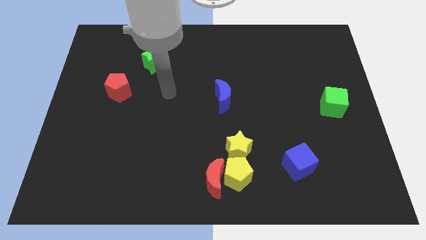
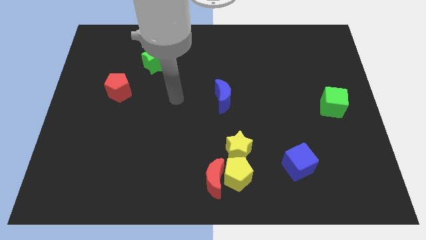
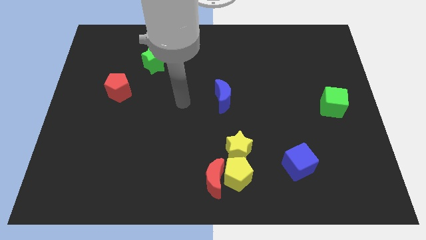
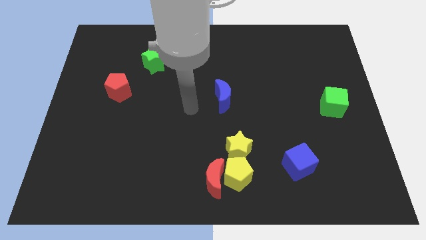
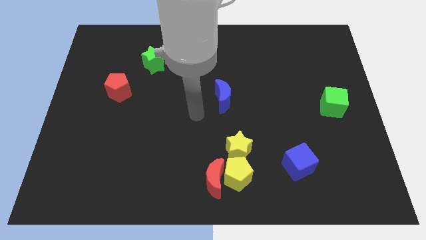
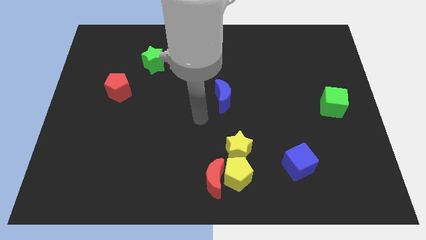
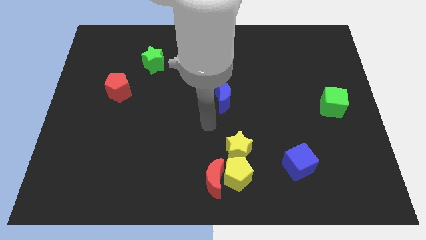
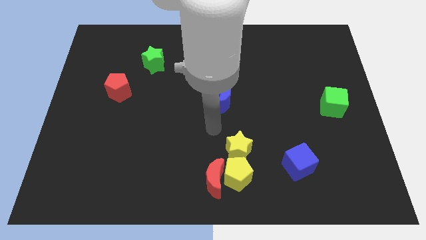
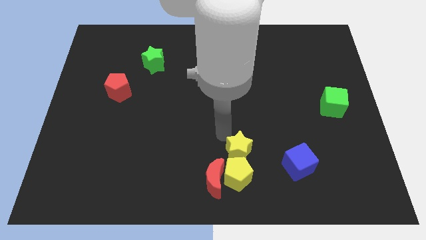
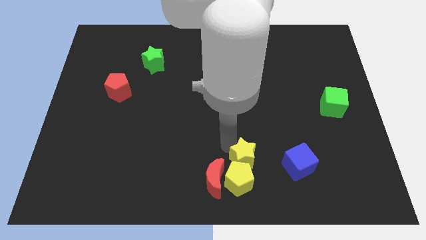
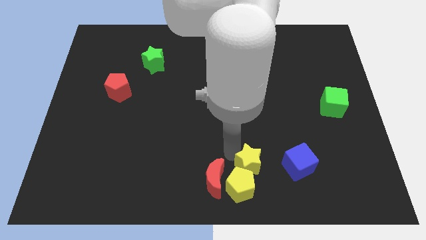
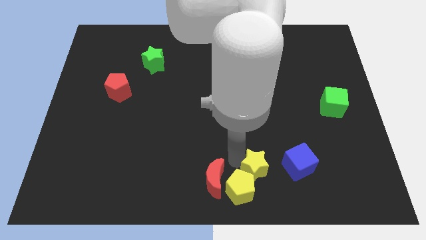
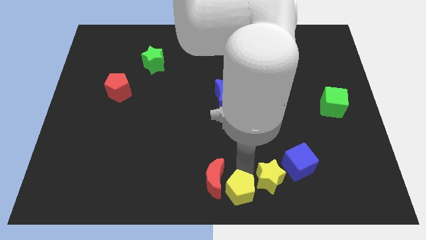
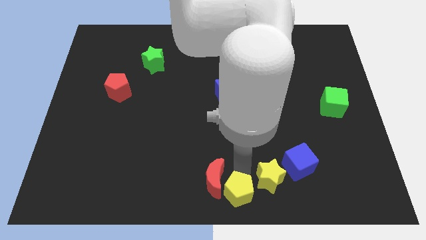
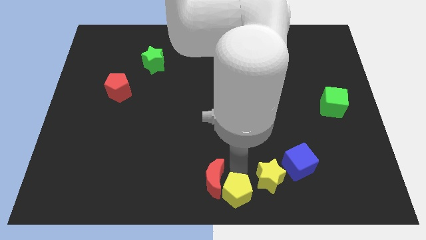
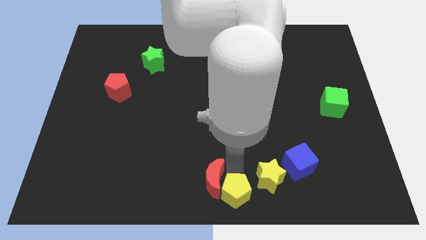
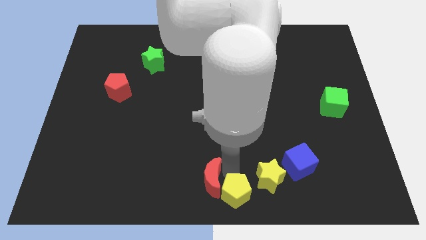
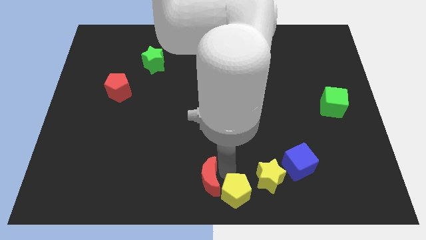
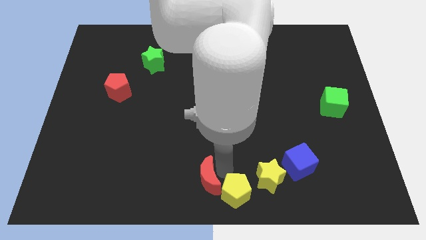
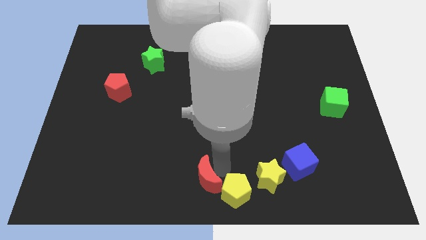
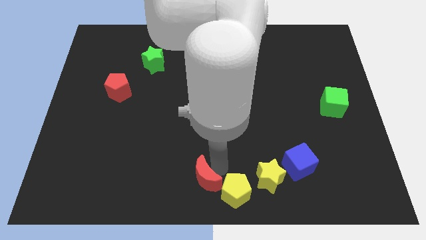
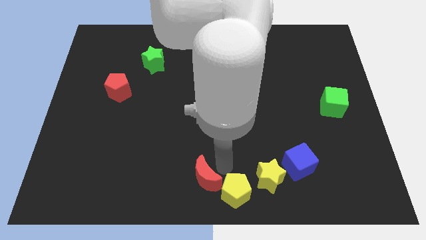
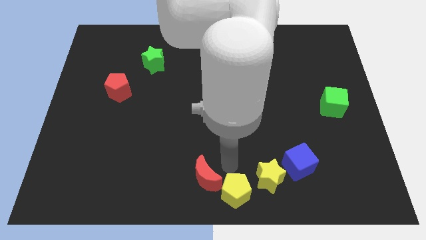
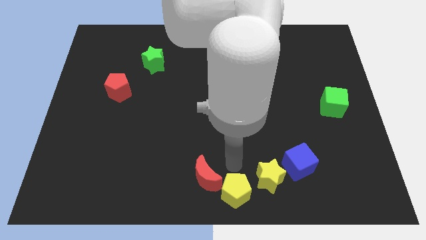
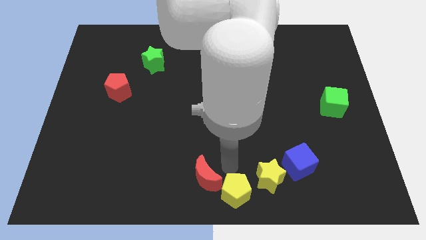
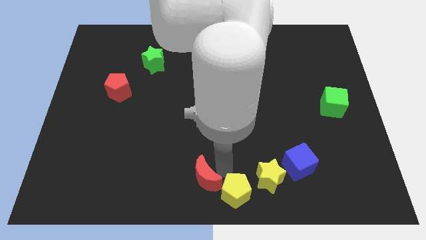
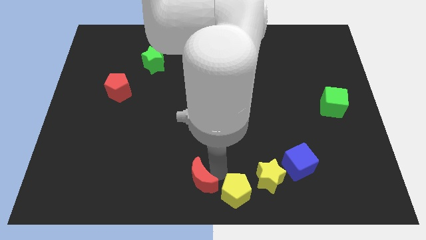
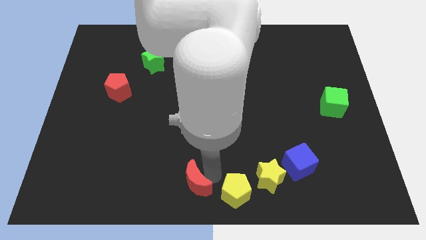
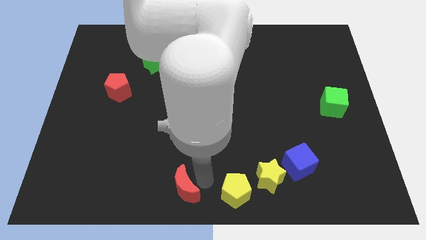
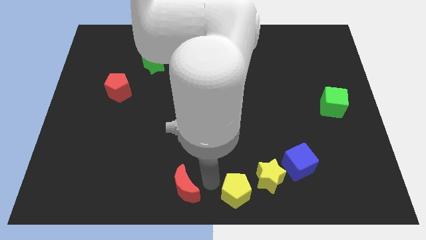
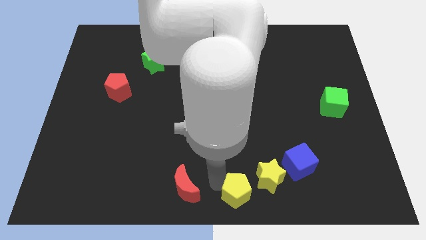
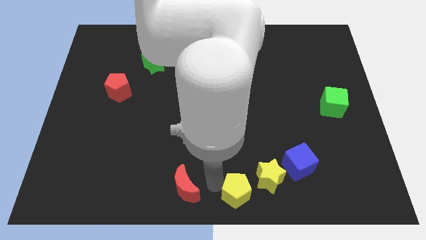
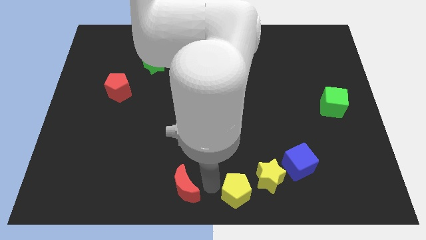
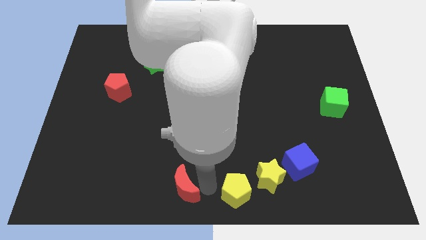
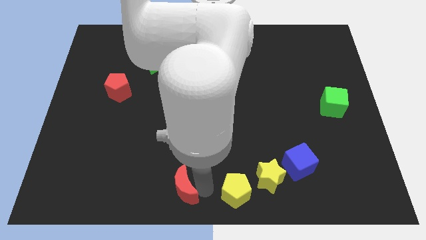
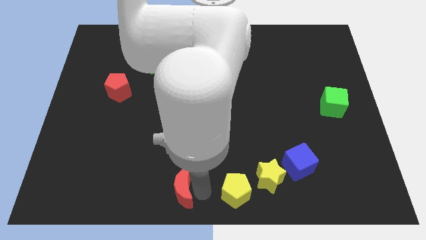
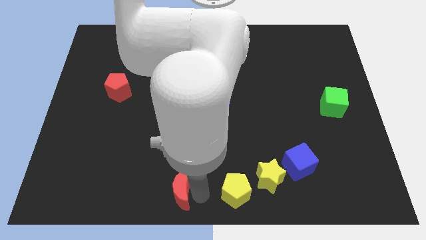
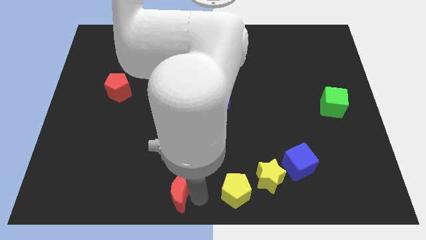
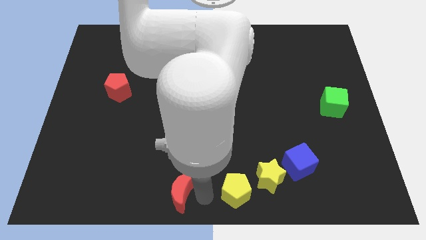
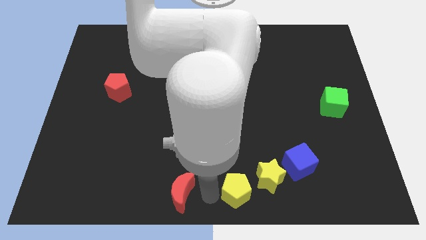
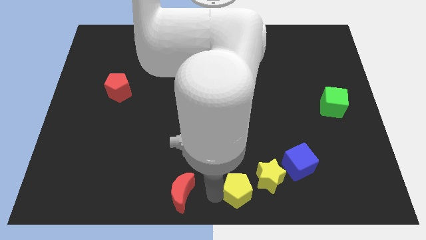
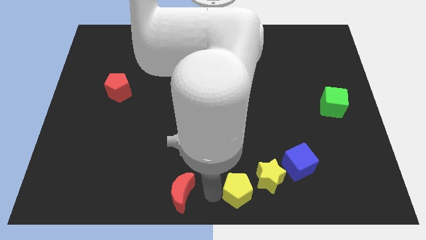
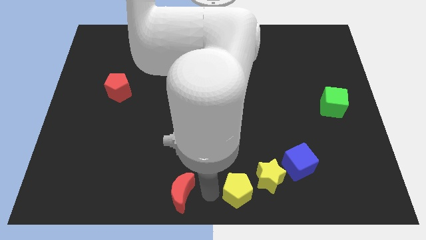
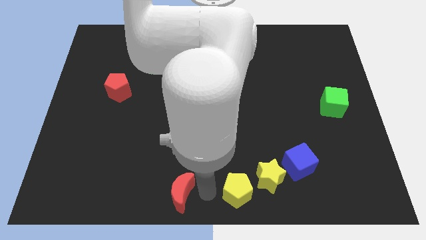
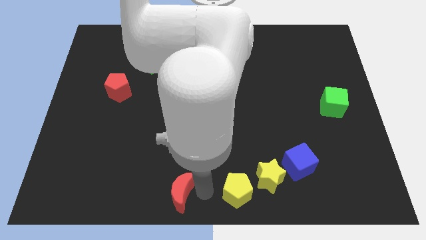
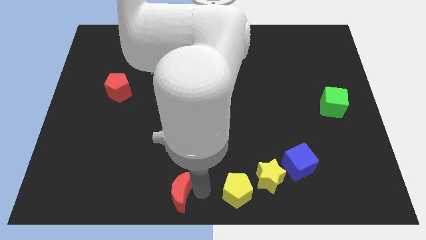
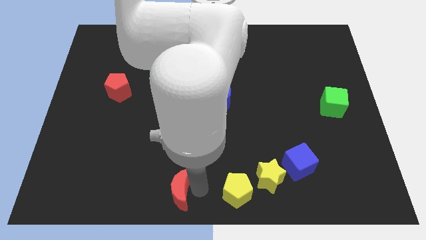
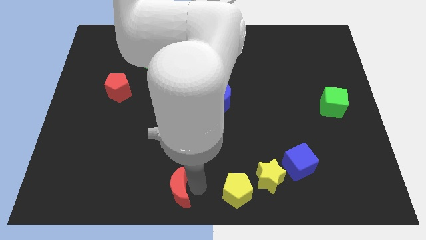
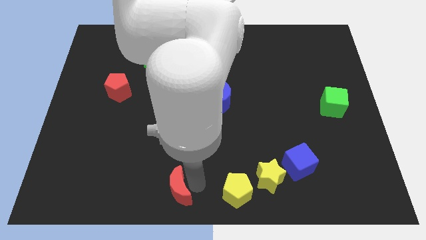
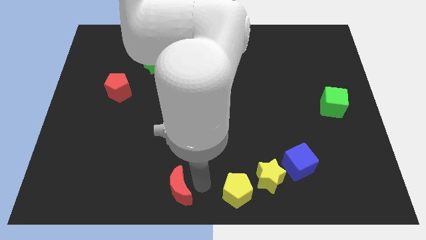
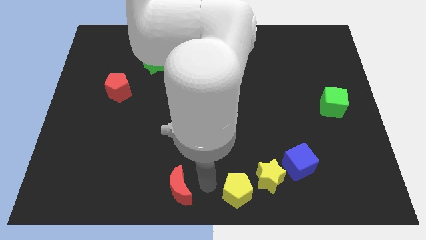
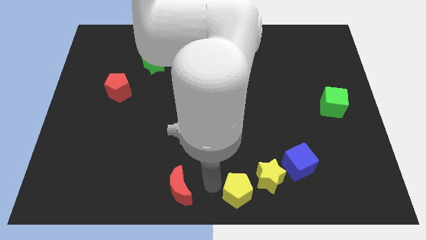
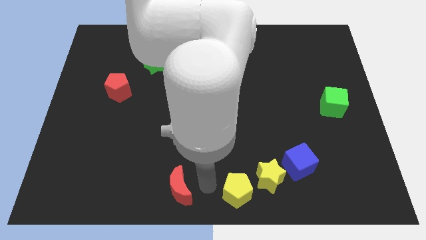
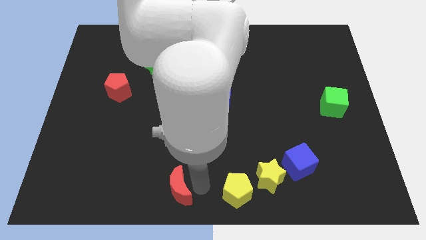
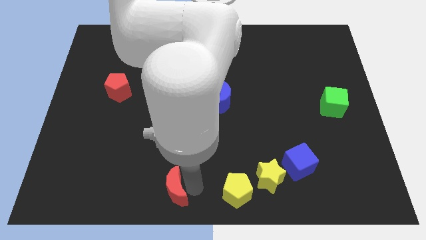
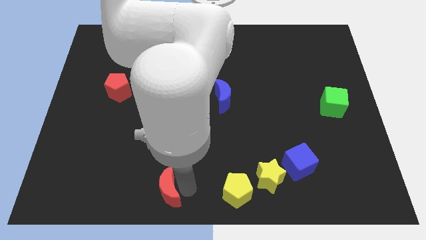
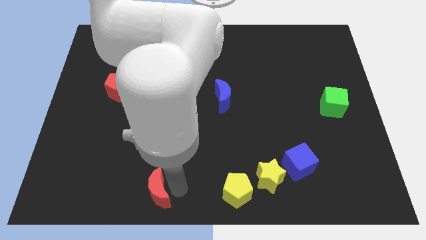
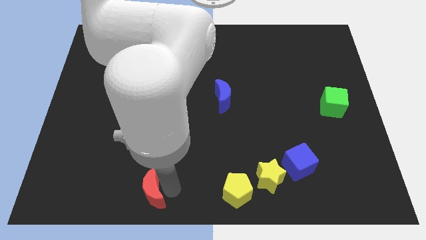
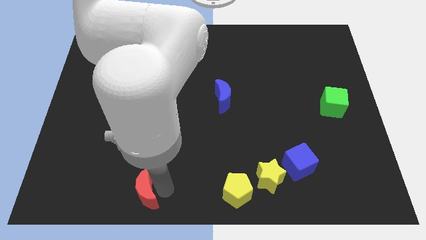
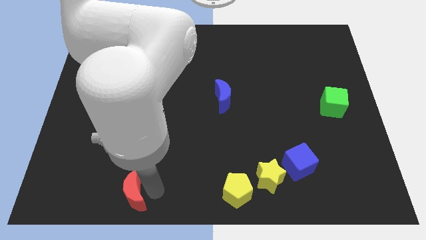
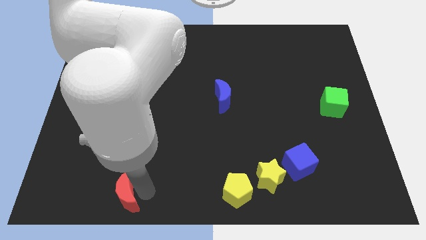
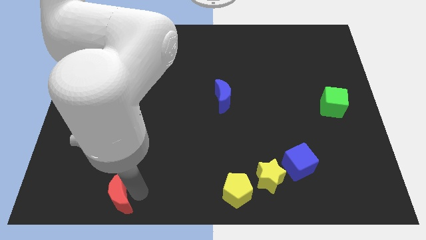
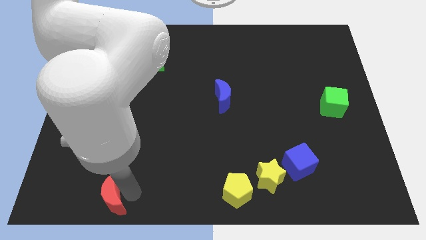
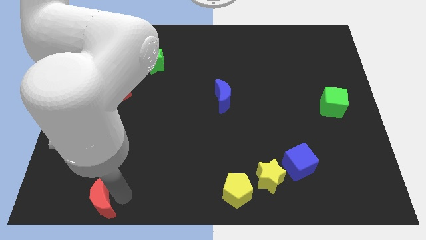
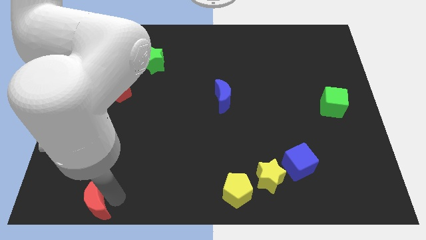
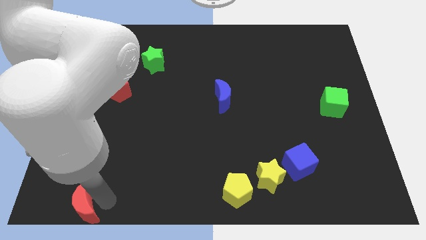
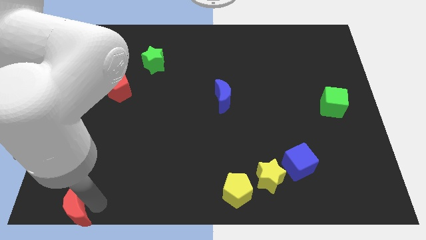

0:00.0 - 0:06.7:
push the red moon to the lower left corner

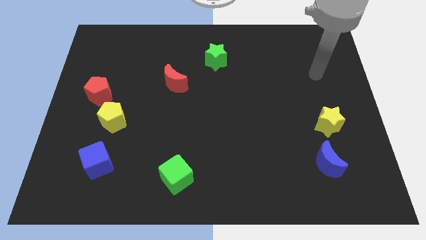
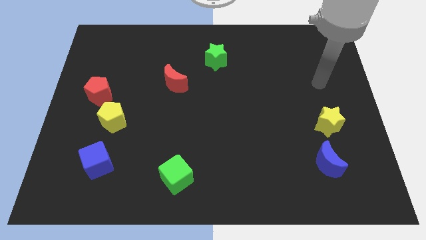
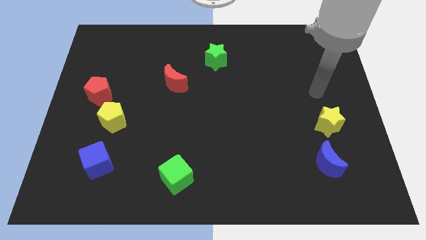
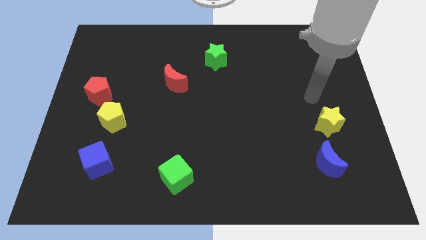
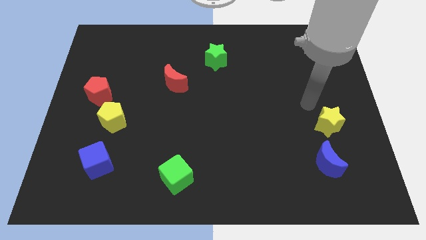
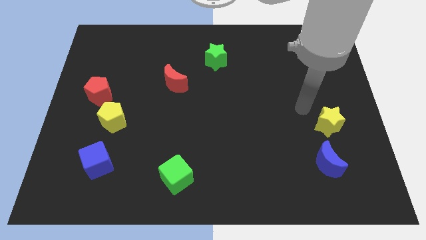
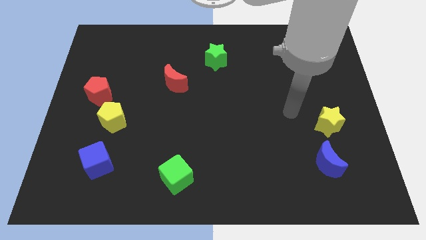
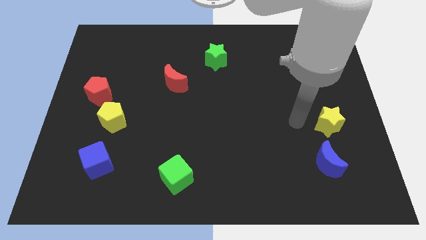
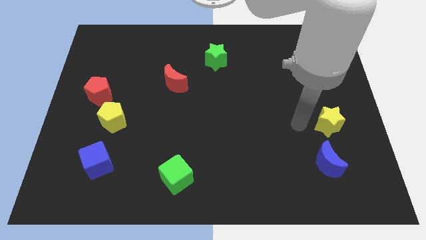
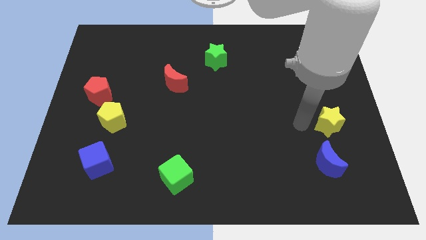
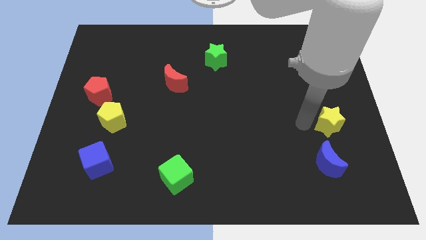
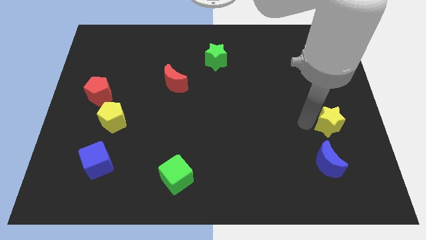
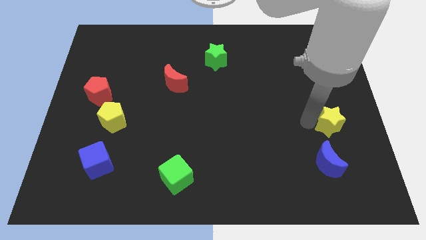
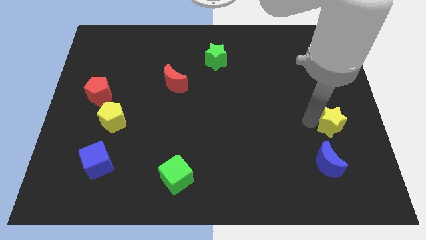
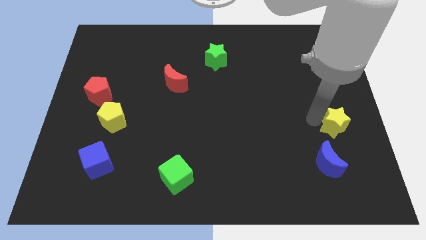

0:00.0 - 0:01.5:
move the yellow star to the center right
